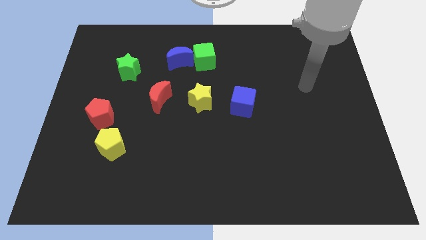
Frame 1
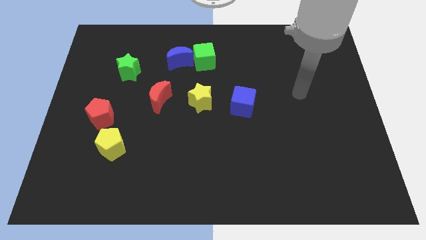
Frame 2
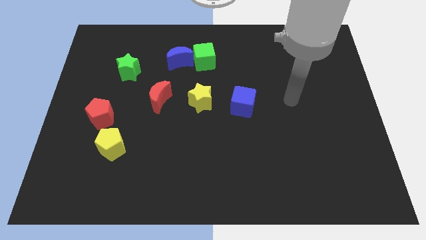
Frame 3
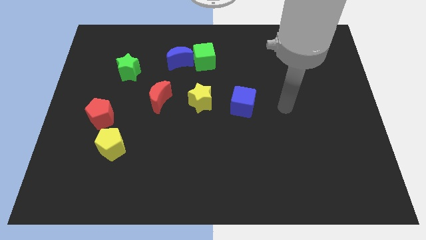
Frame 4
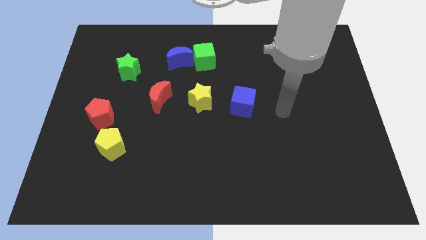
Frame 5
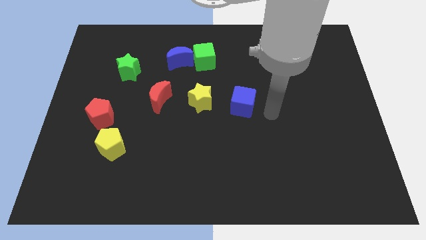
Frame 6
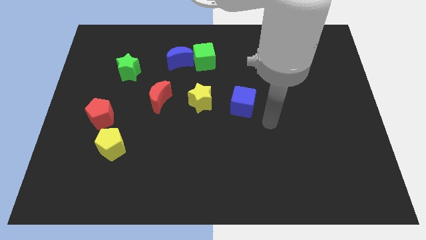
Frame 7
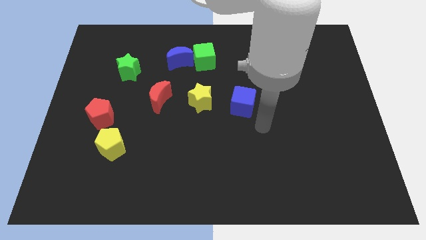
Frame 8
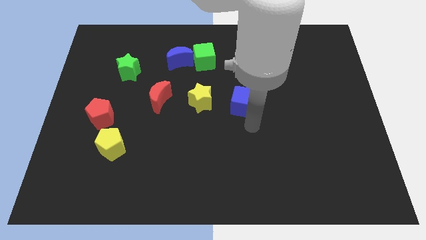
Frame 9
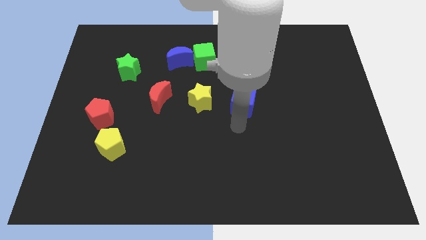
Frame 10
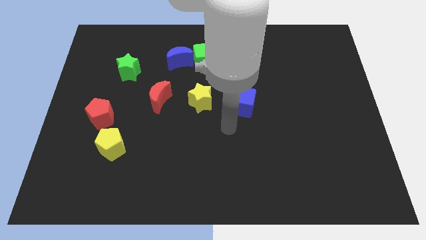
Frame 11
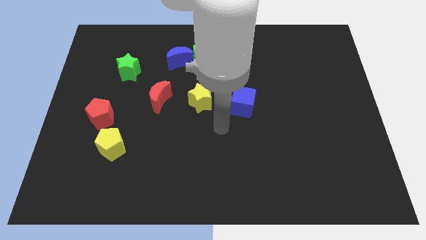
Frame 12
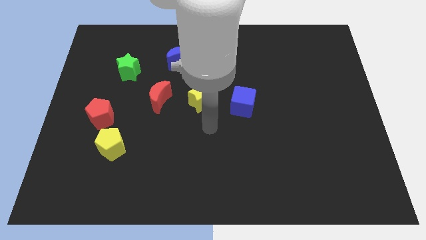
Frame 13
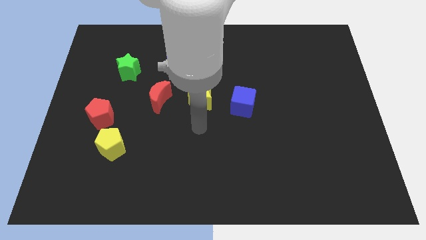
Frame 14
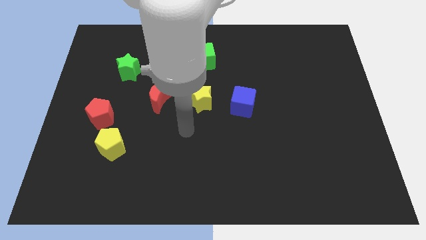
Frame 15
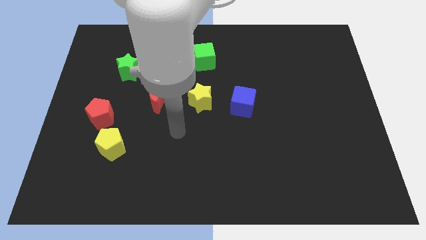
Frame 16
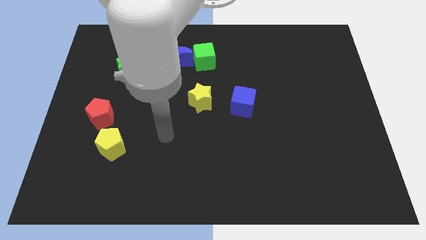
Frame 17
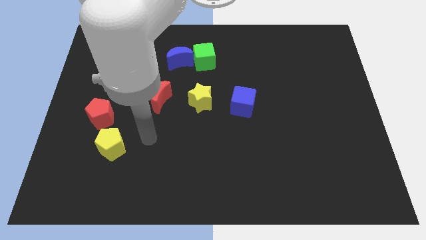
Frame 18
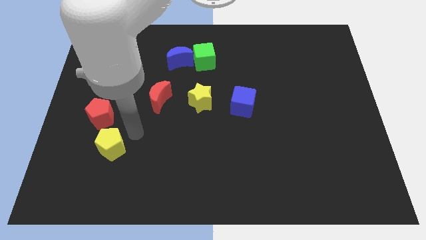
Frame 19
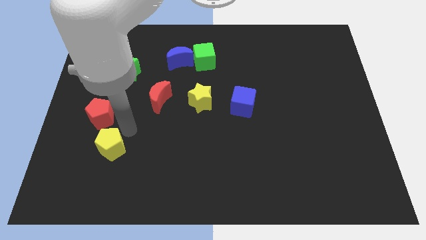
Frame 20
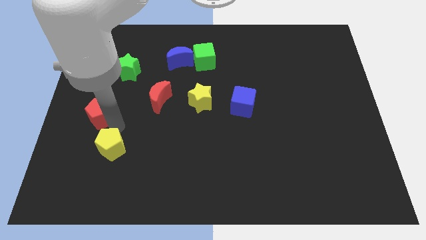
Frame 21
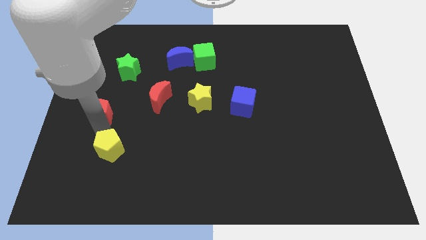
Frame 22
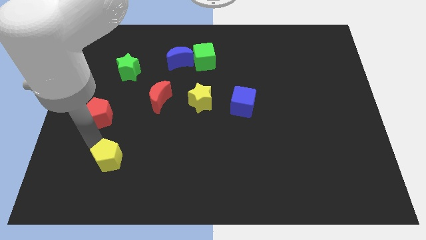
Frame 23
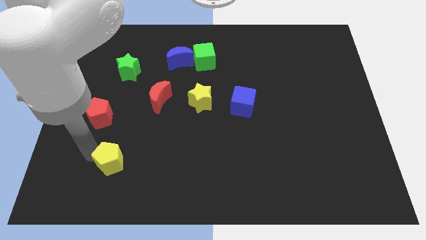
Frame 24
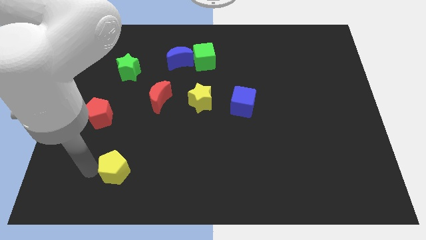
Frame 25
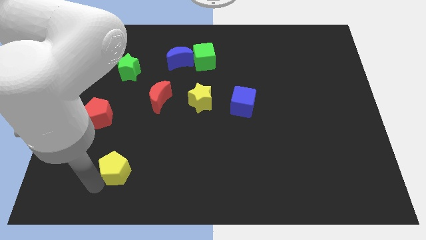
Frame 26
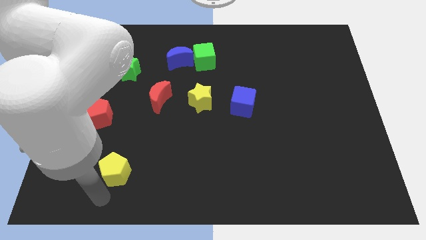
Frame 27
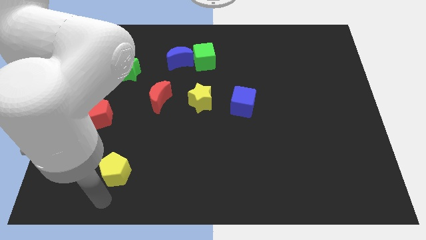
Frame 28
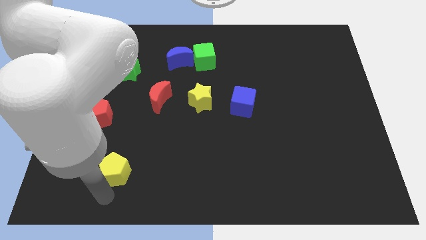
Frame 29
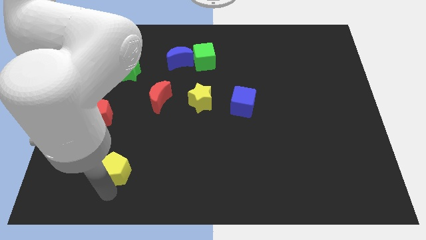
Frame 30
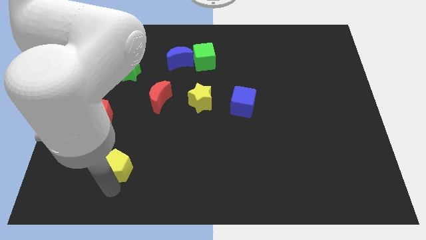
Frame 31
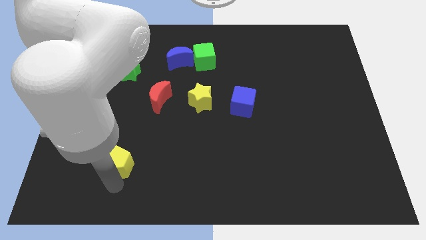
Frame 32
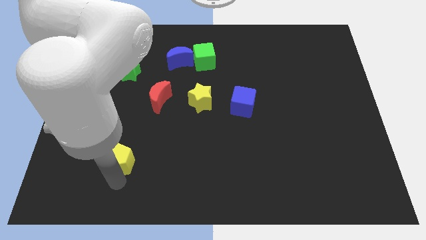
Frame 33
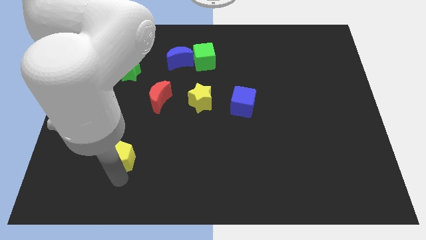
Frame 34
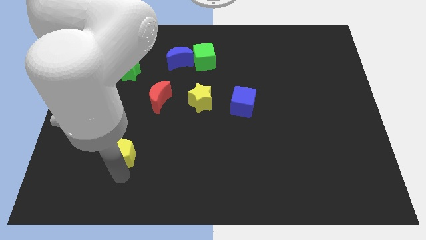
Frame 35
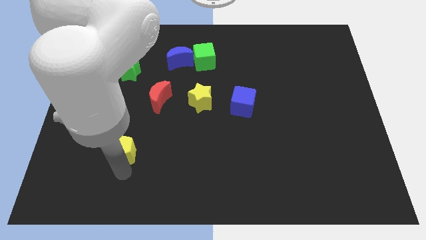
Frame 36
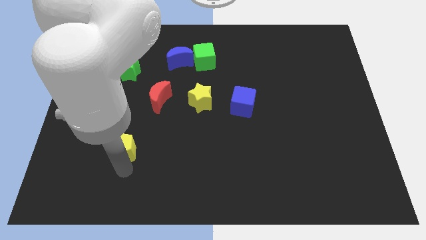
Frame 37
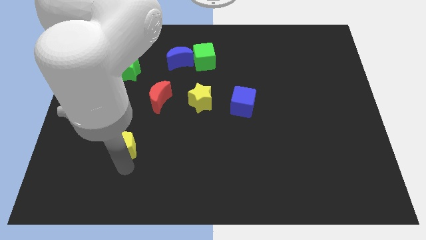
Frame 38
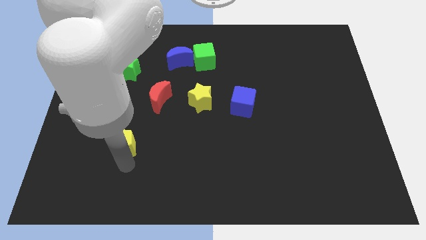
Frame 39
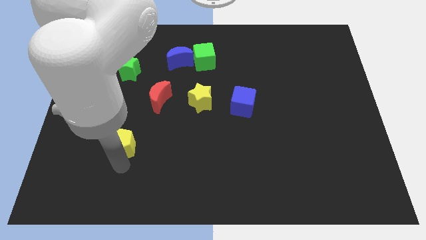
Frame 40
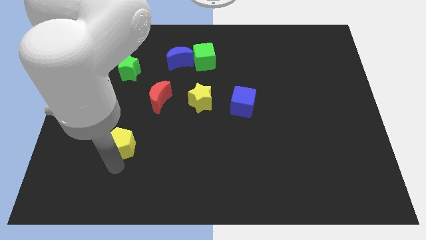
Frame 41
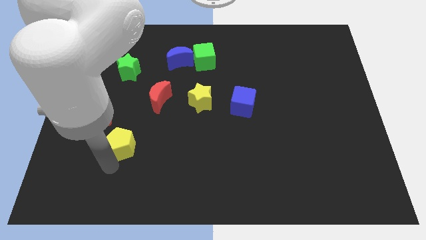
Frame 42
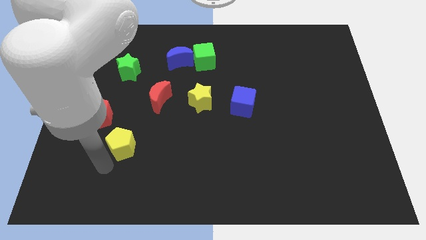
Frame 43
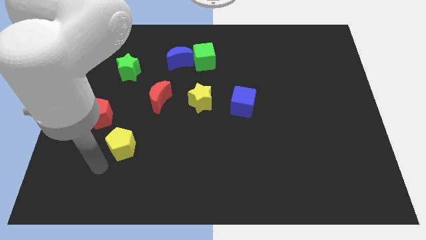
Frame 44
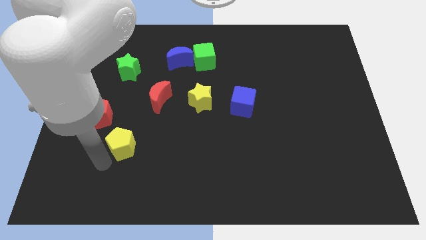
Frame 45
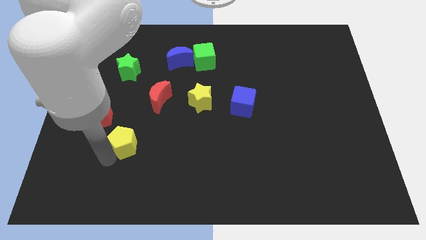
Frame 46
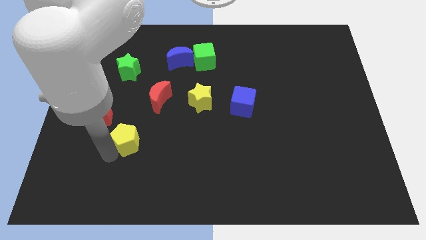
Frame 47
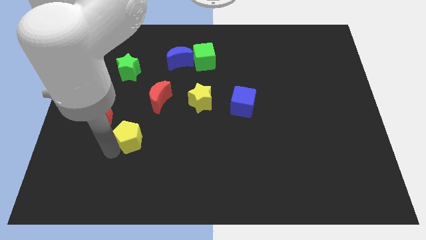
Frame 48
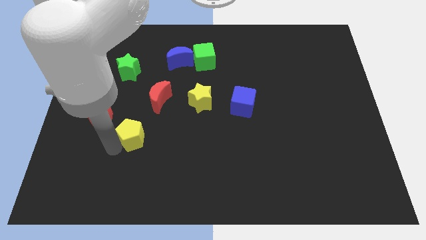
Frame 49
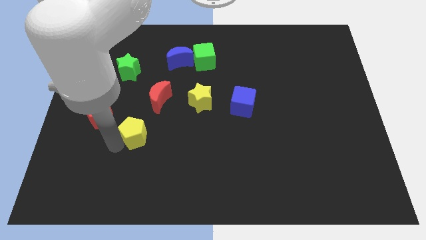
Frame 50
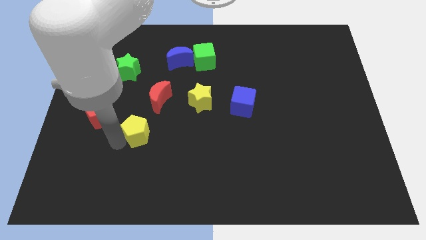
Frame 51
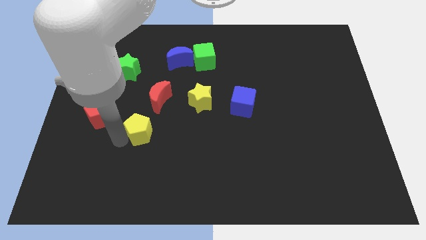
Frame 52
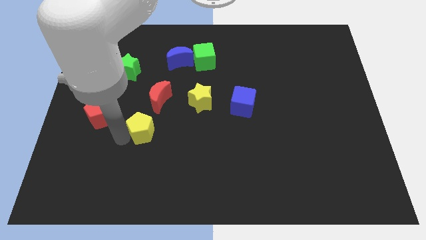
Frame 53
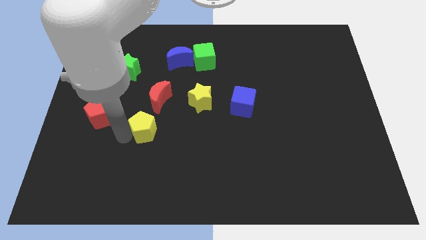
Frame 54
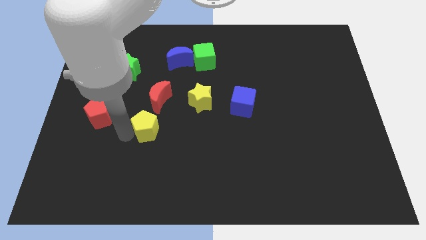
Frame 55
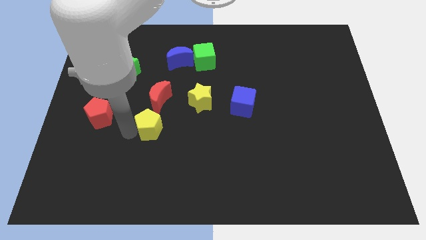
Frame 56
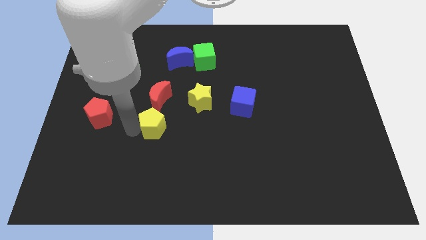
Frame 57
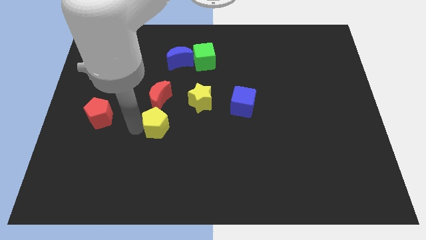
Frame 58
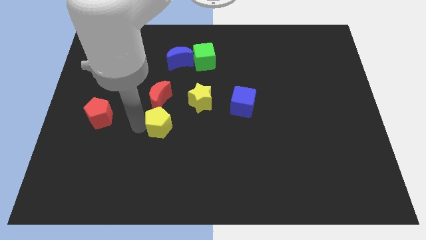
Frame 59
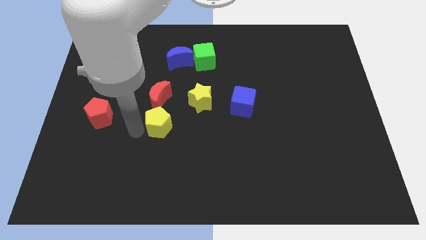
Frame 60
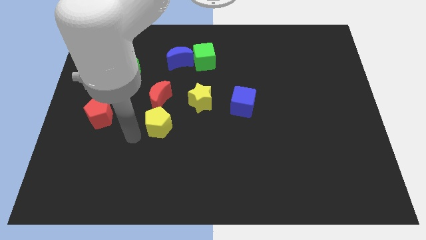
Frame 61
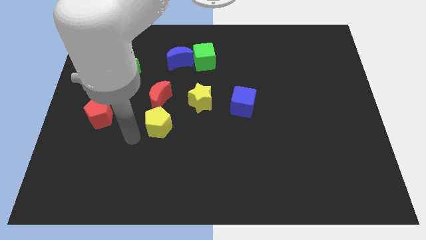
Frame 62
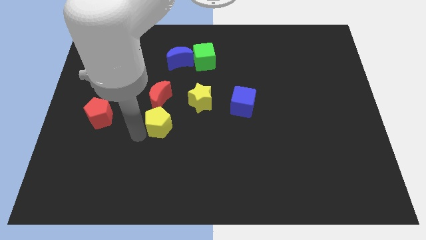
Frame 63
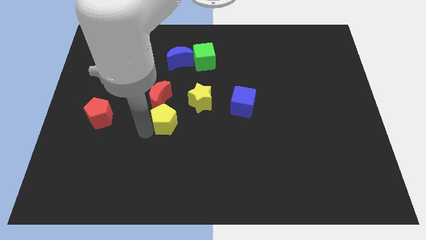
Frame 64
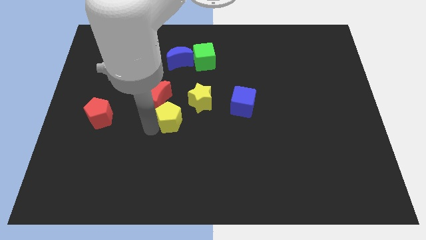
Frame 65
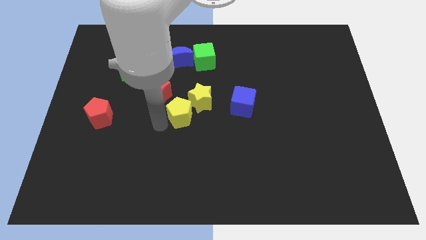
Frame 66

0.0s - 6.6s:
move the yellow pentagon next to the yellow star

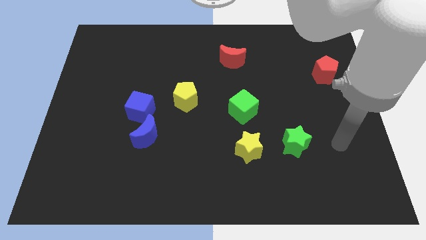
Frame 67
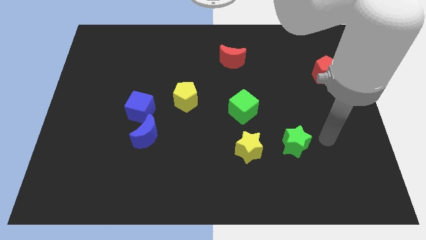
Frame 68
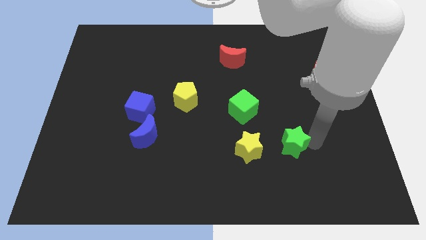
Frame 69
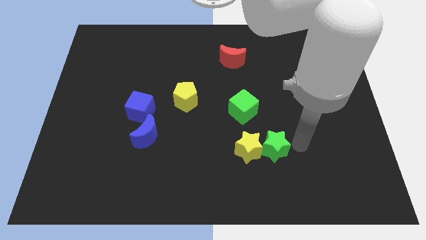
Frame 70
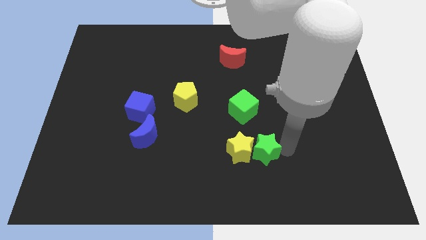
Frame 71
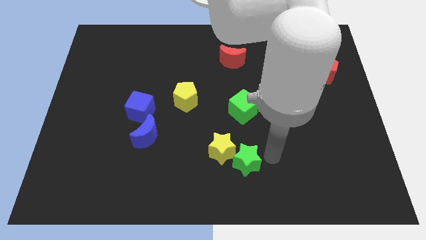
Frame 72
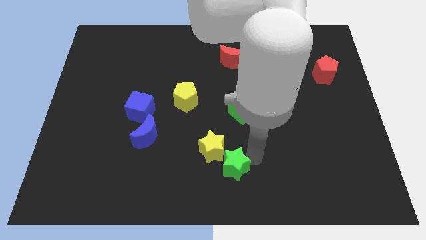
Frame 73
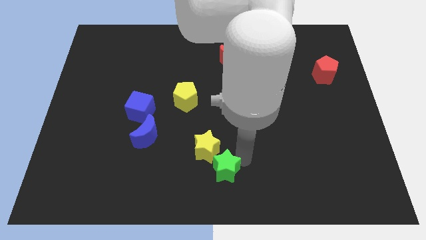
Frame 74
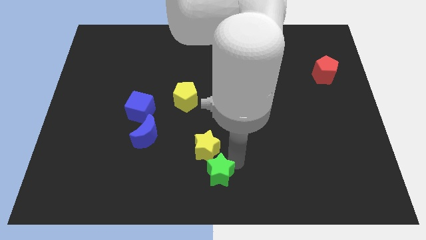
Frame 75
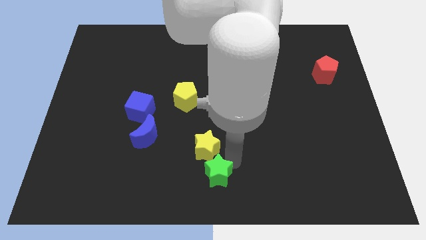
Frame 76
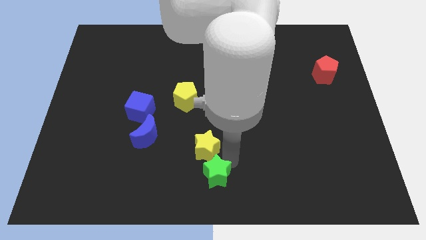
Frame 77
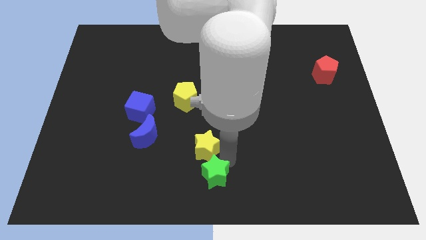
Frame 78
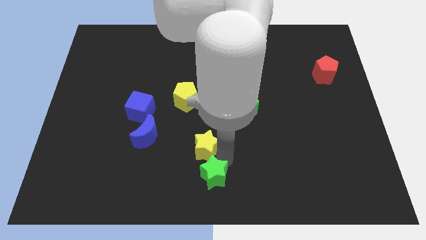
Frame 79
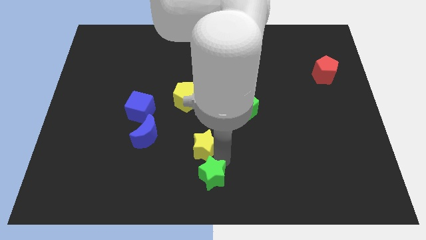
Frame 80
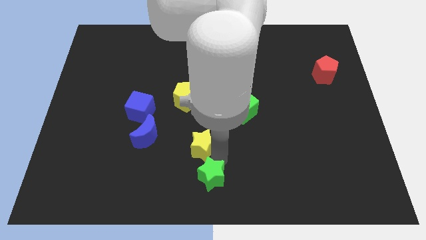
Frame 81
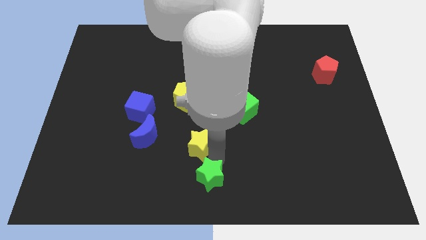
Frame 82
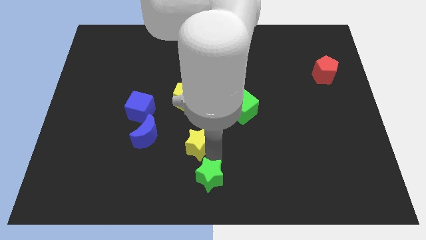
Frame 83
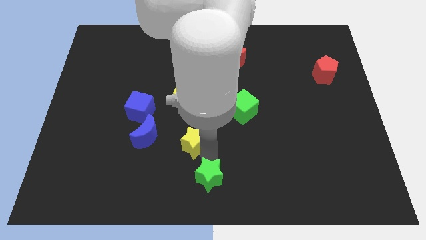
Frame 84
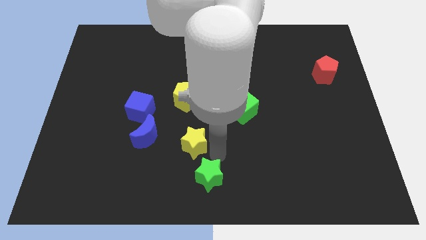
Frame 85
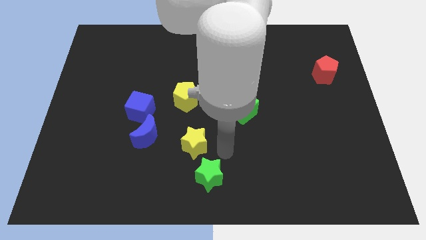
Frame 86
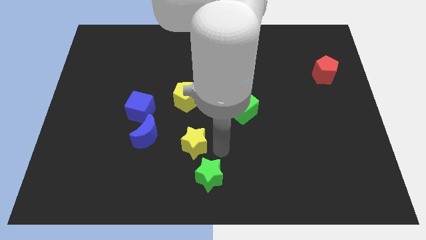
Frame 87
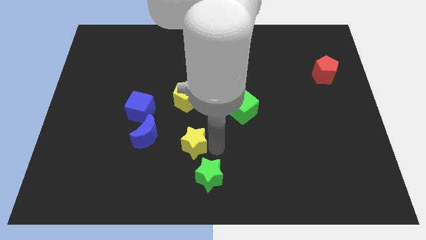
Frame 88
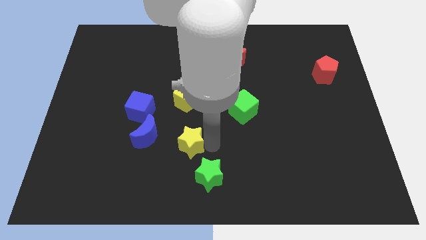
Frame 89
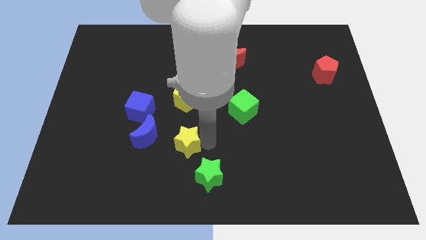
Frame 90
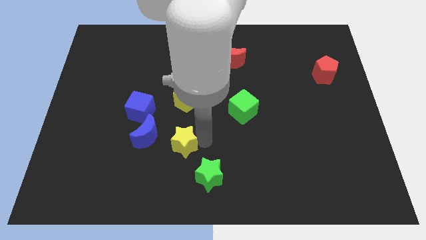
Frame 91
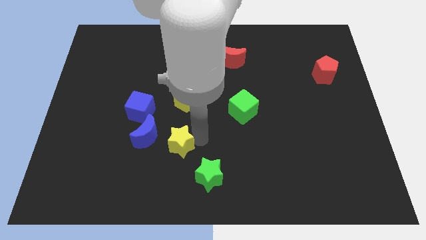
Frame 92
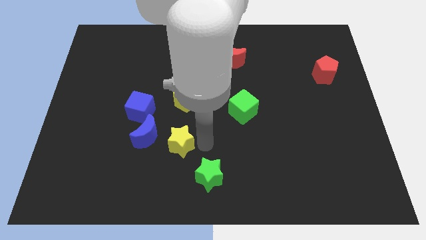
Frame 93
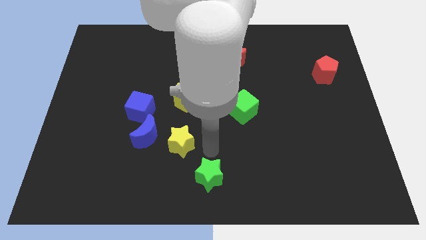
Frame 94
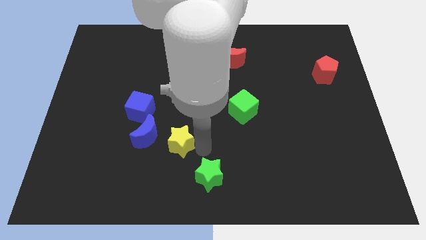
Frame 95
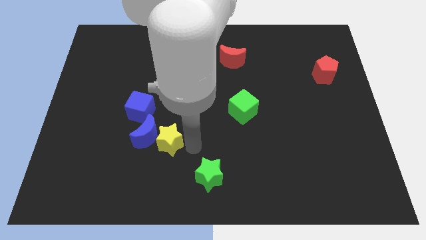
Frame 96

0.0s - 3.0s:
move the yellow star towards the blue moon
